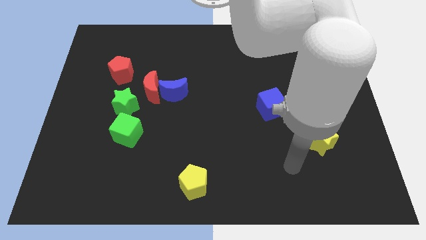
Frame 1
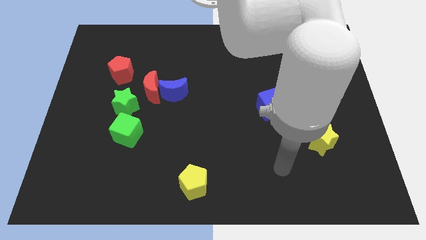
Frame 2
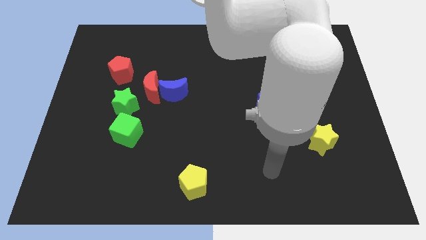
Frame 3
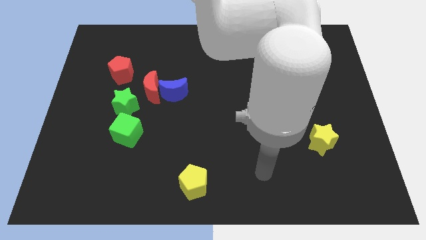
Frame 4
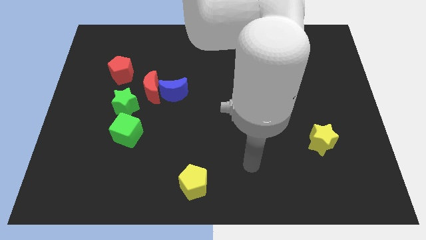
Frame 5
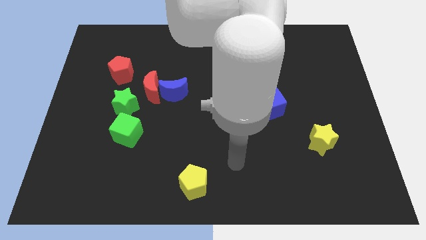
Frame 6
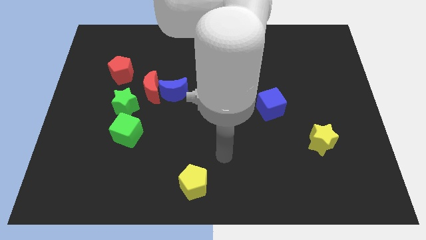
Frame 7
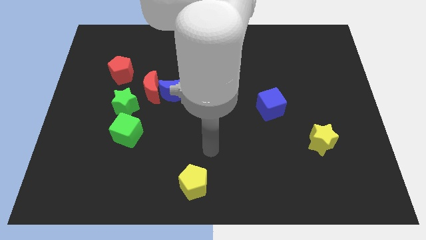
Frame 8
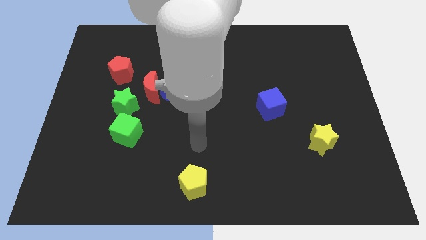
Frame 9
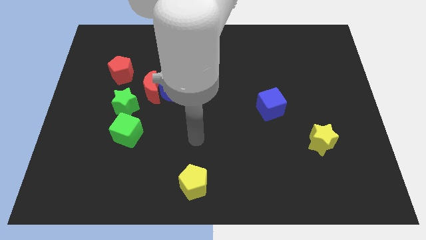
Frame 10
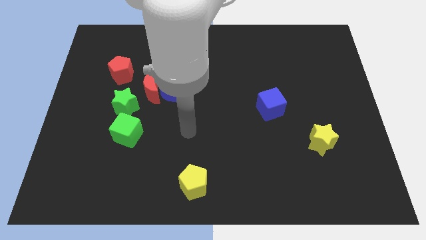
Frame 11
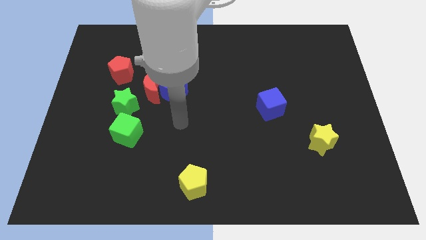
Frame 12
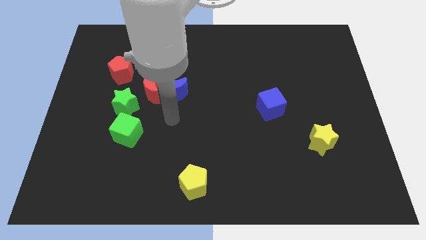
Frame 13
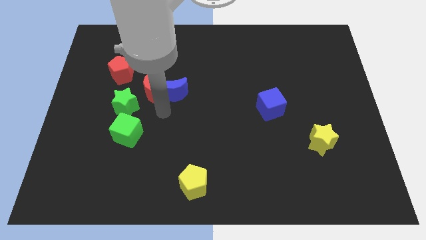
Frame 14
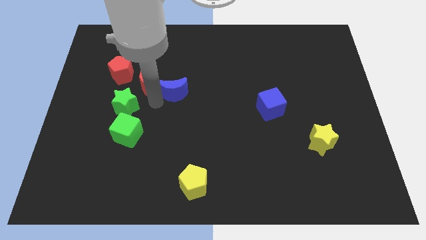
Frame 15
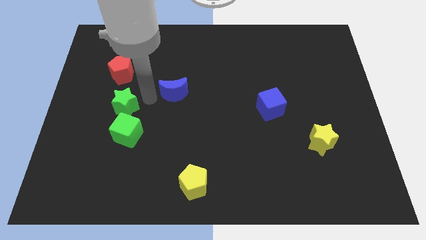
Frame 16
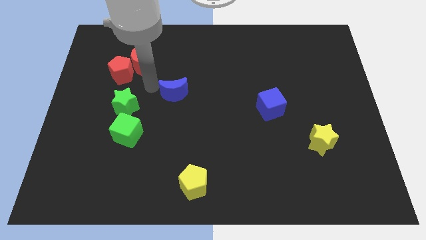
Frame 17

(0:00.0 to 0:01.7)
pull the blue moon apart from the red moon

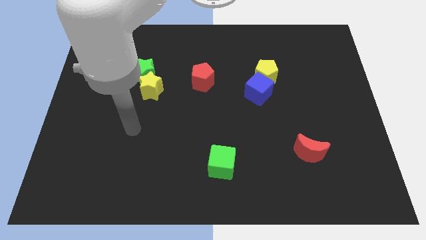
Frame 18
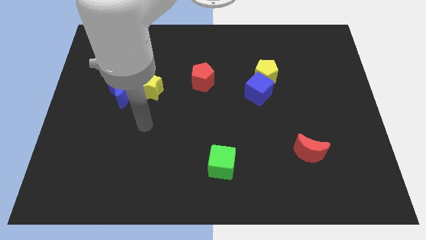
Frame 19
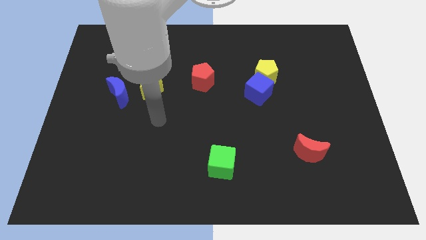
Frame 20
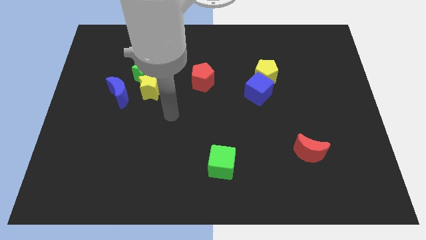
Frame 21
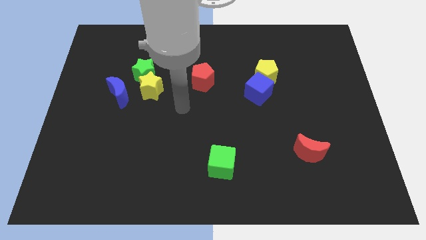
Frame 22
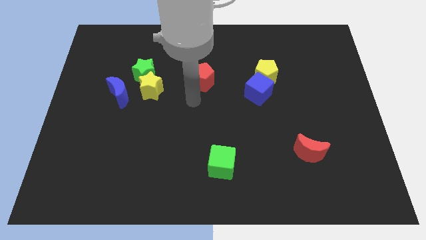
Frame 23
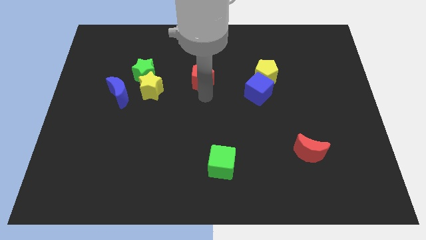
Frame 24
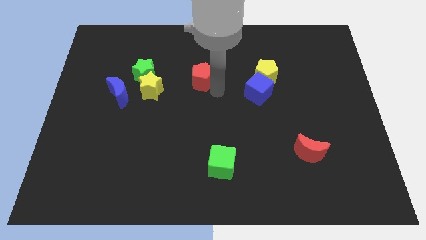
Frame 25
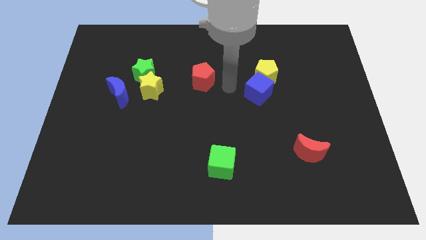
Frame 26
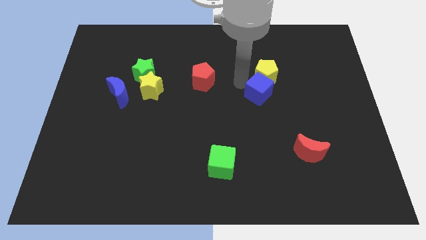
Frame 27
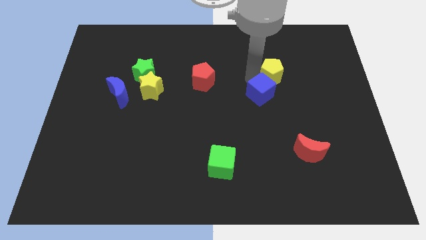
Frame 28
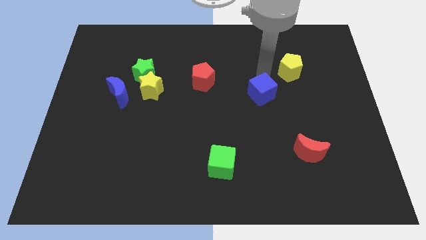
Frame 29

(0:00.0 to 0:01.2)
separate the blue cube from the yellow pentagon

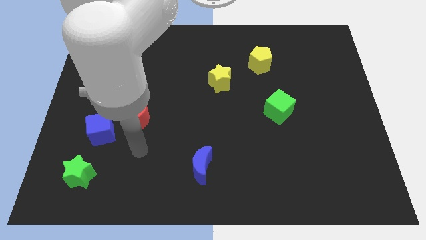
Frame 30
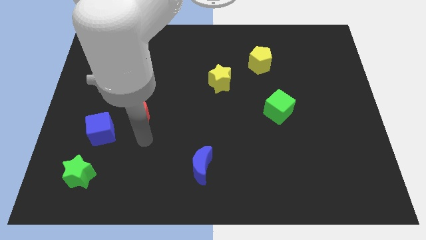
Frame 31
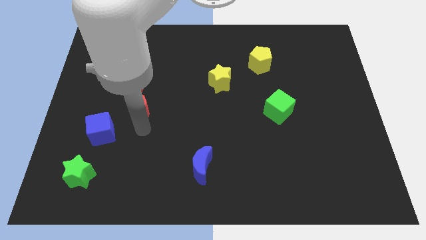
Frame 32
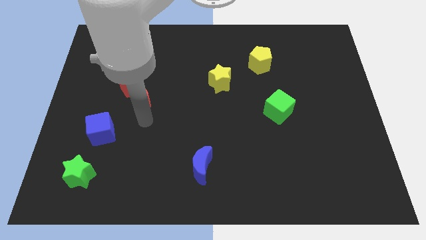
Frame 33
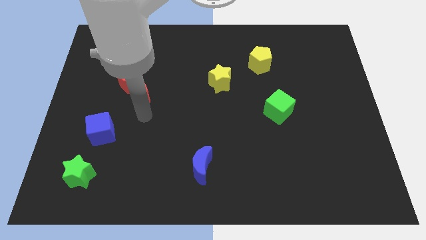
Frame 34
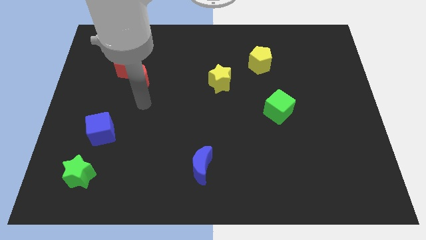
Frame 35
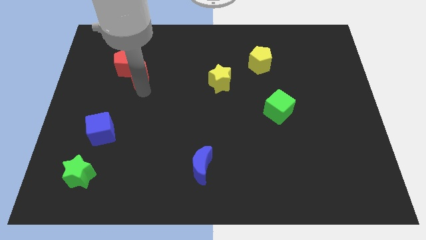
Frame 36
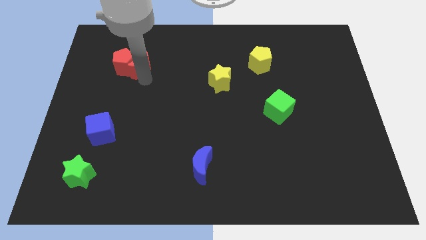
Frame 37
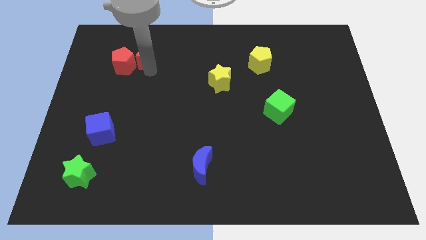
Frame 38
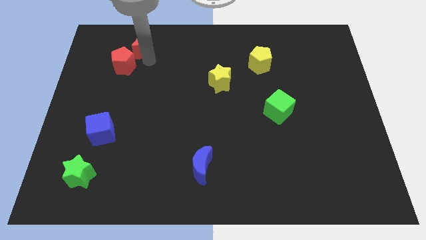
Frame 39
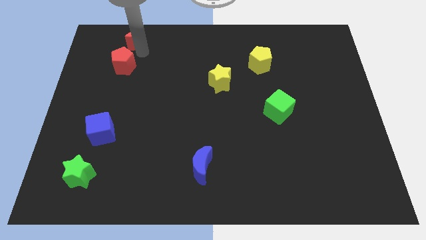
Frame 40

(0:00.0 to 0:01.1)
move the red pentagon away from the red moon

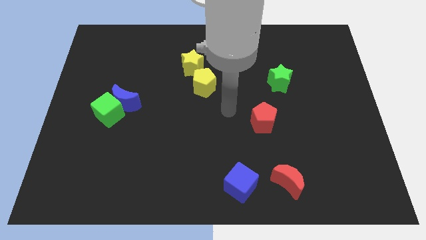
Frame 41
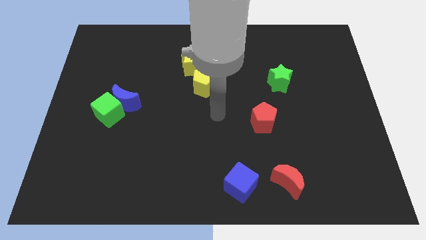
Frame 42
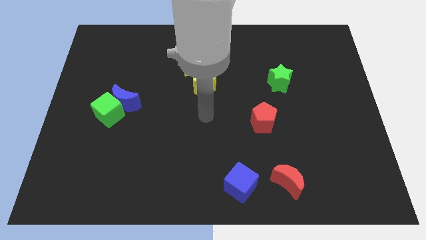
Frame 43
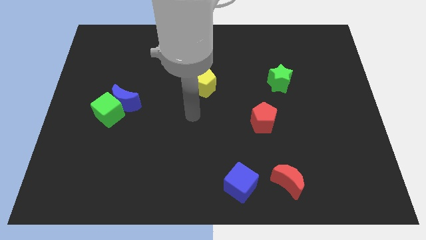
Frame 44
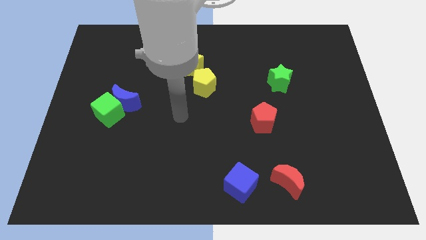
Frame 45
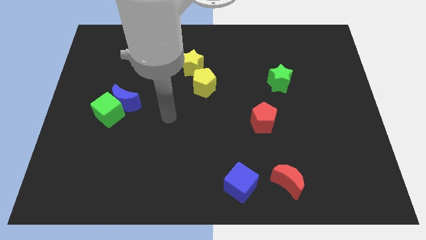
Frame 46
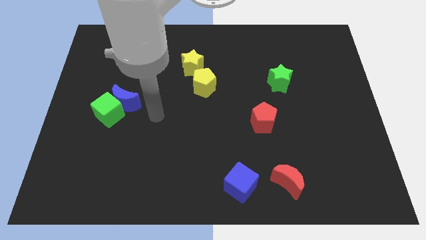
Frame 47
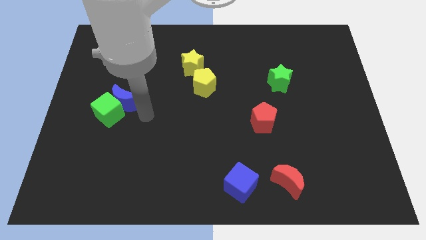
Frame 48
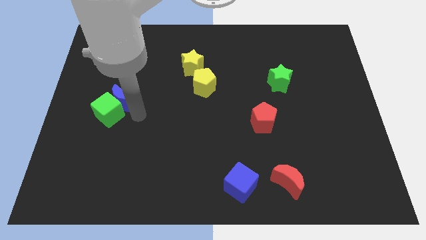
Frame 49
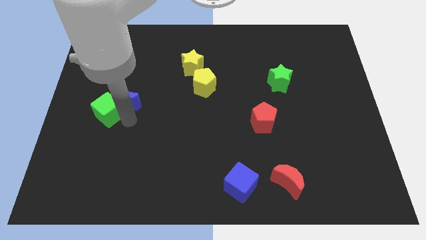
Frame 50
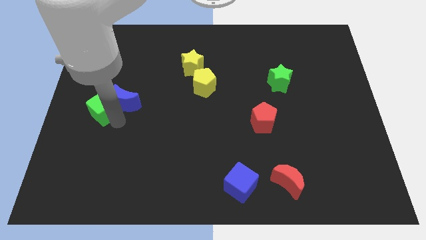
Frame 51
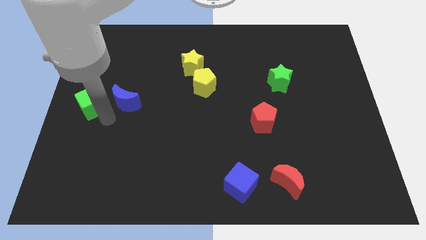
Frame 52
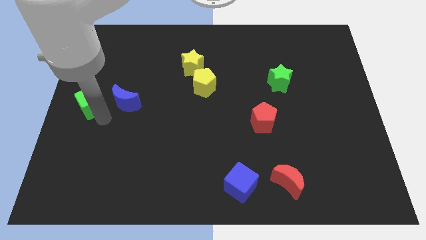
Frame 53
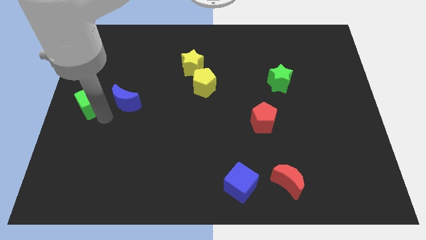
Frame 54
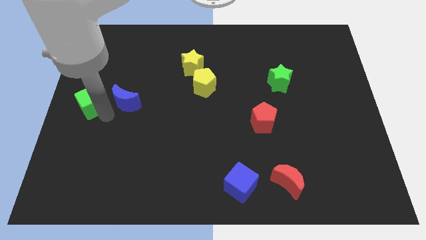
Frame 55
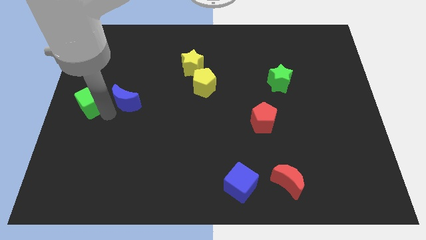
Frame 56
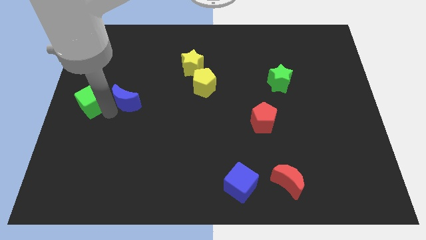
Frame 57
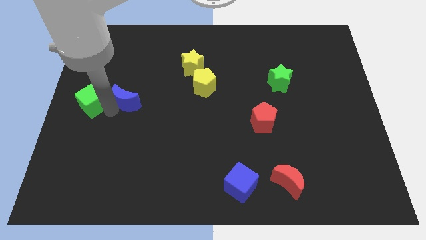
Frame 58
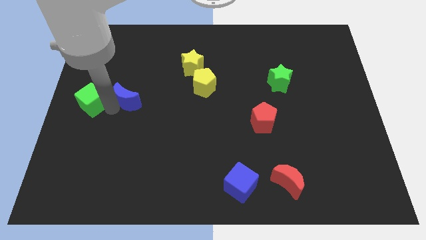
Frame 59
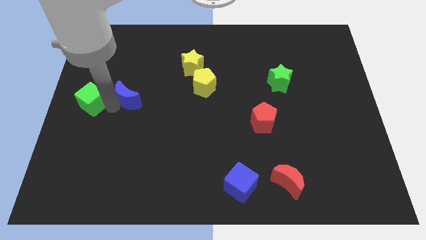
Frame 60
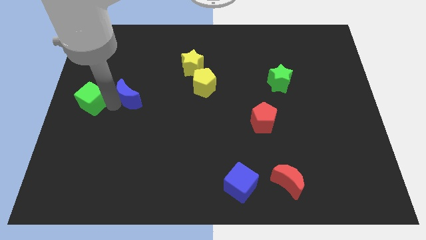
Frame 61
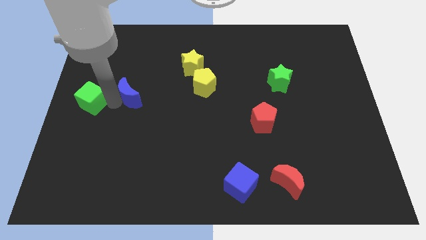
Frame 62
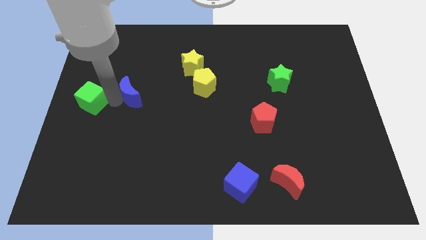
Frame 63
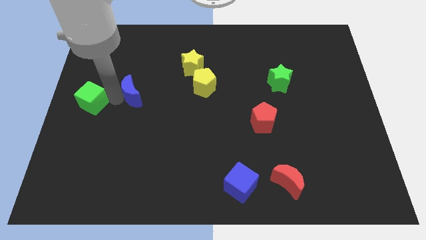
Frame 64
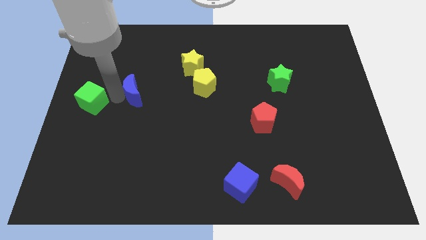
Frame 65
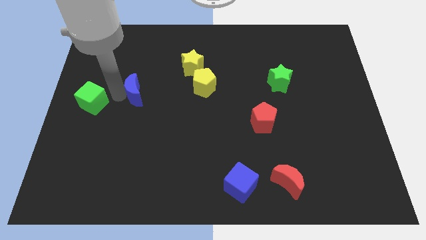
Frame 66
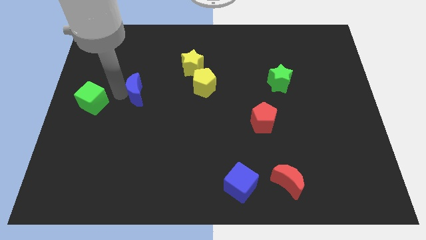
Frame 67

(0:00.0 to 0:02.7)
move the blue moon away from the green cube

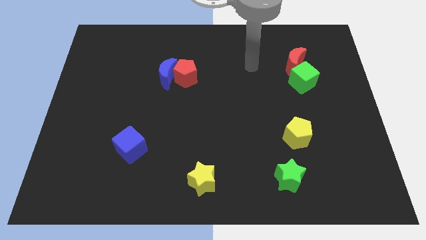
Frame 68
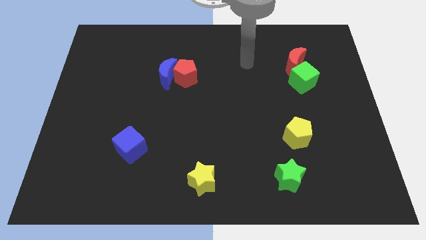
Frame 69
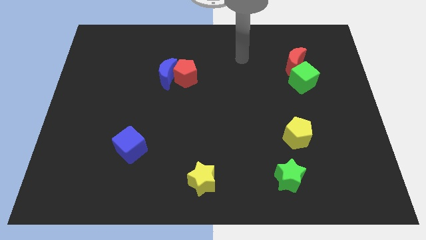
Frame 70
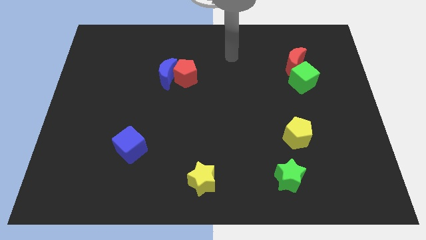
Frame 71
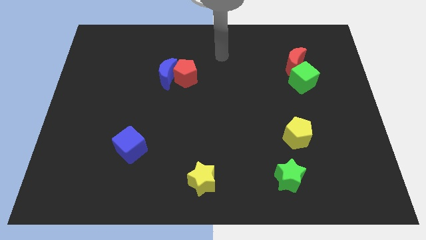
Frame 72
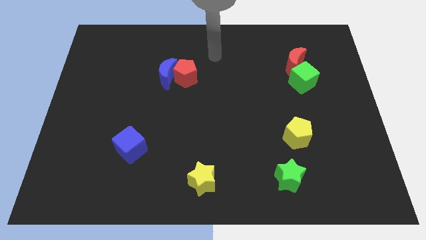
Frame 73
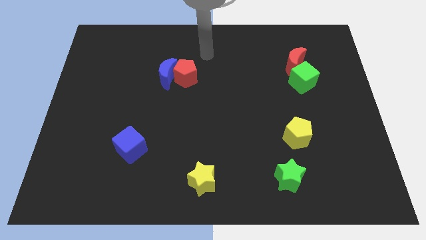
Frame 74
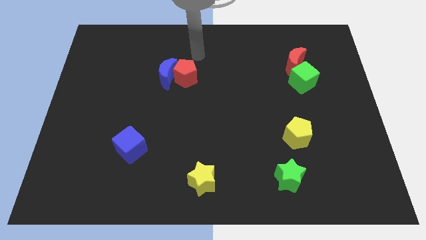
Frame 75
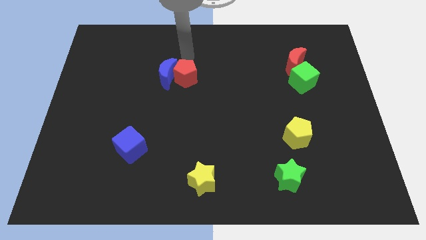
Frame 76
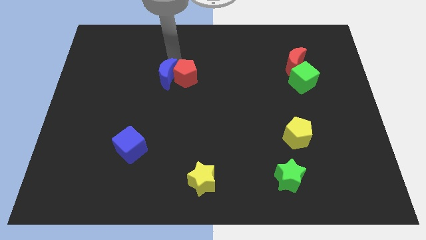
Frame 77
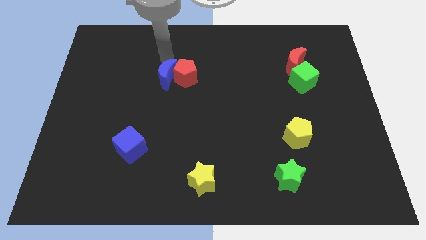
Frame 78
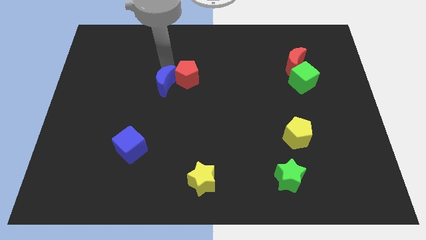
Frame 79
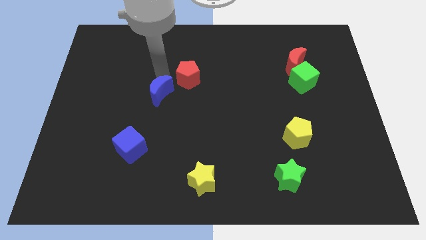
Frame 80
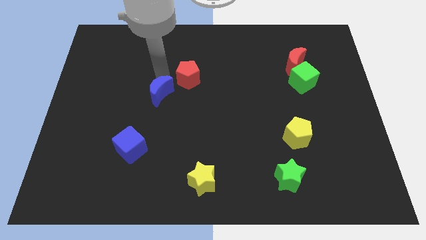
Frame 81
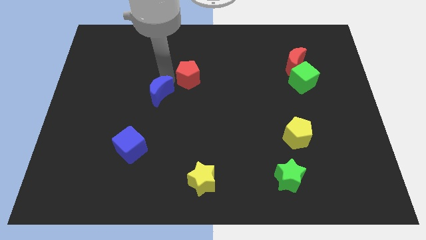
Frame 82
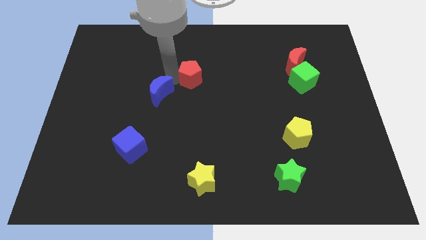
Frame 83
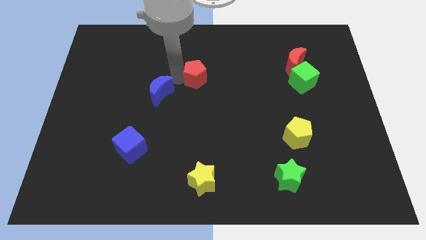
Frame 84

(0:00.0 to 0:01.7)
move the red pentagon away from the blue moon

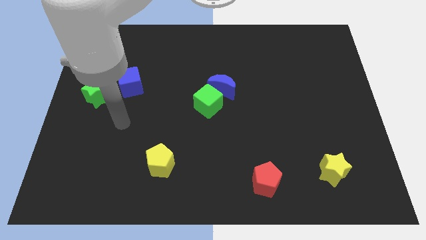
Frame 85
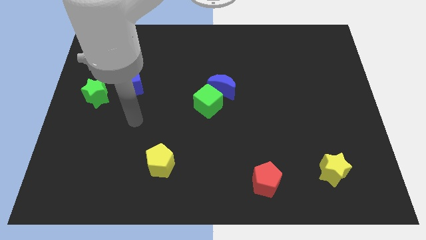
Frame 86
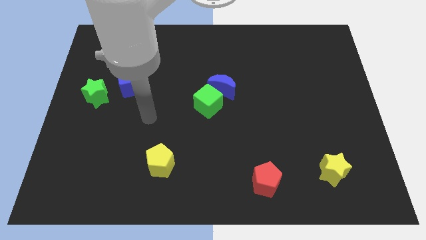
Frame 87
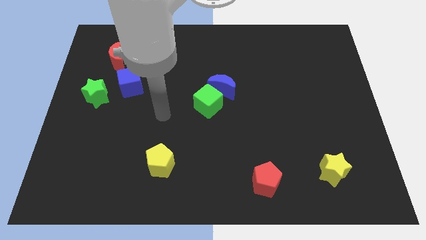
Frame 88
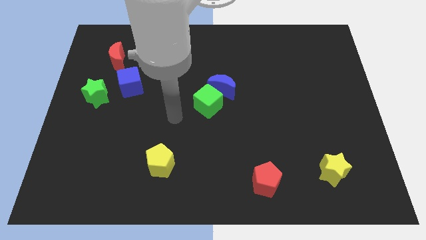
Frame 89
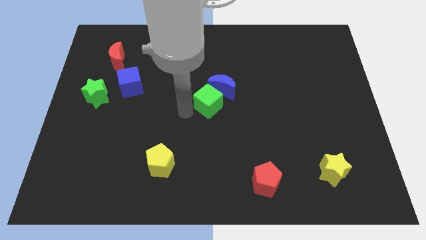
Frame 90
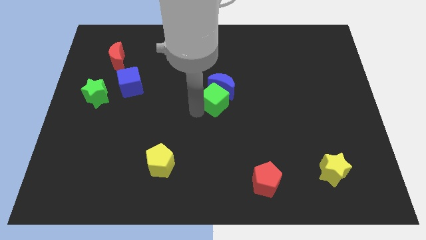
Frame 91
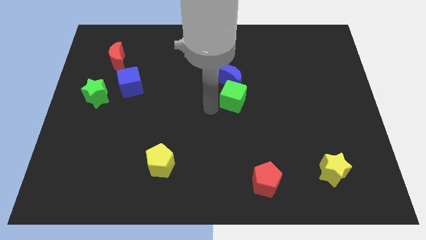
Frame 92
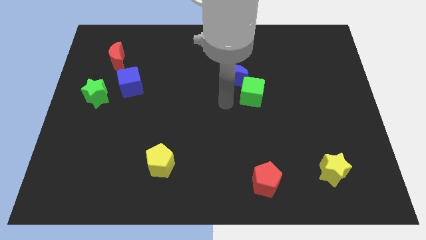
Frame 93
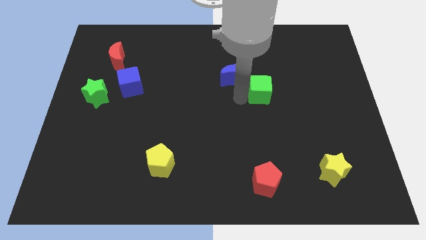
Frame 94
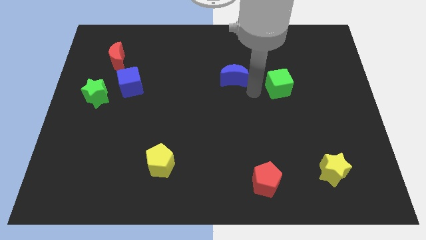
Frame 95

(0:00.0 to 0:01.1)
separate the blue moon from the green cube
